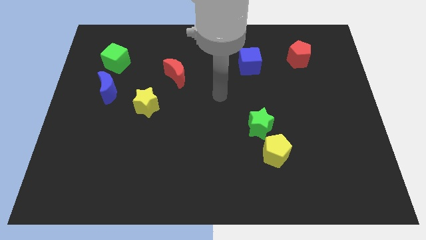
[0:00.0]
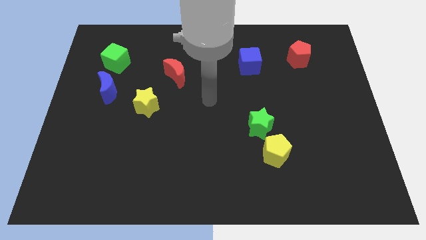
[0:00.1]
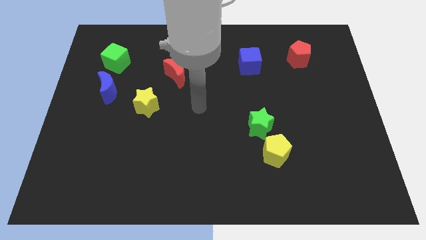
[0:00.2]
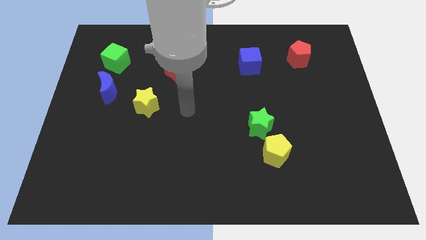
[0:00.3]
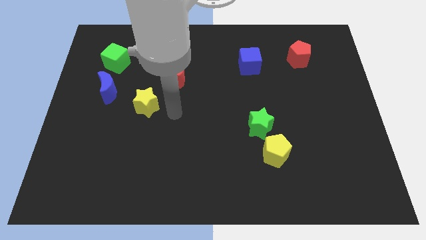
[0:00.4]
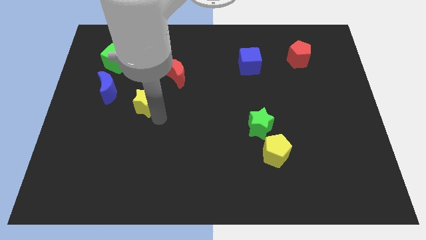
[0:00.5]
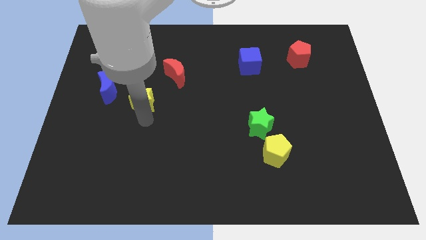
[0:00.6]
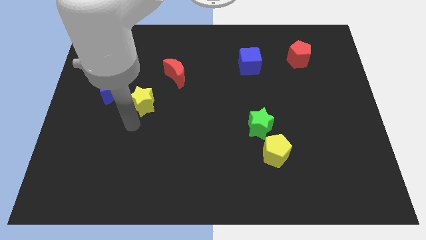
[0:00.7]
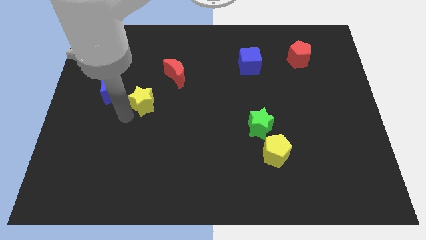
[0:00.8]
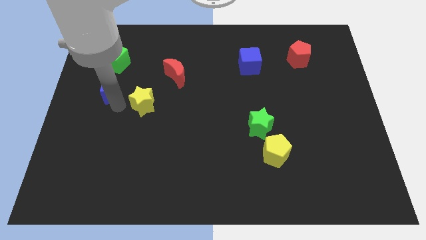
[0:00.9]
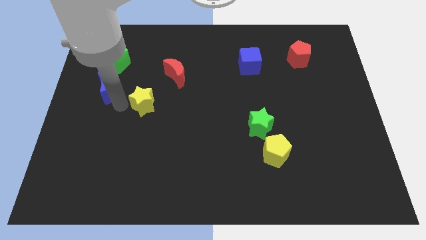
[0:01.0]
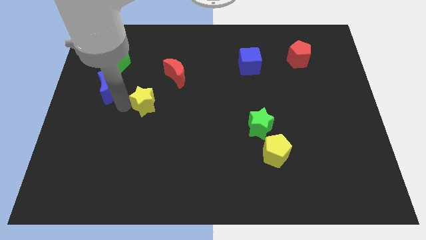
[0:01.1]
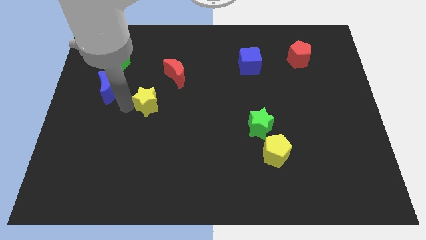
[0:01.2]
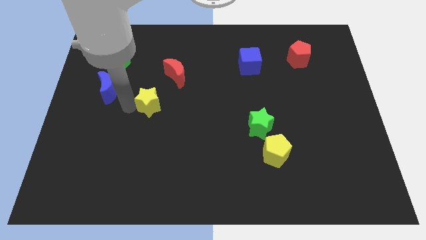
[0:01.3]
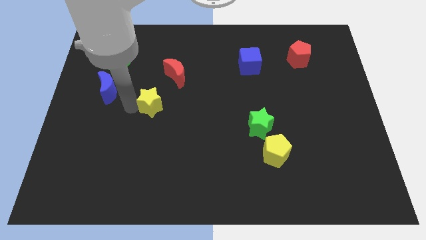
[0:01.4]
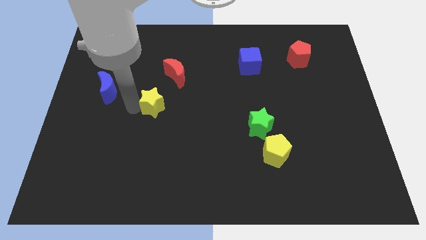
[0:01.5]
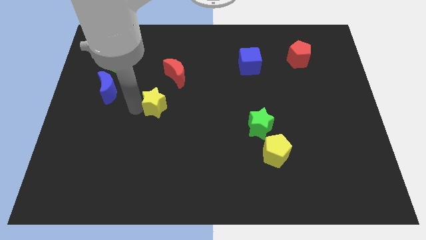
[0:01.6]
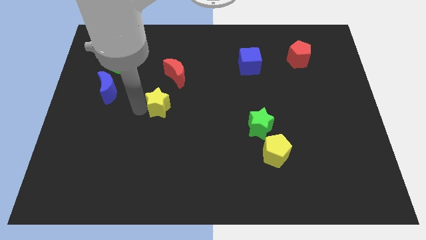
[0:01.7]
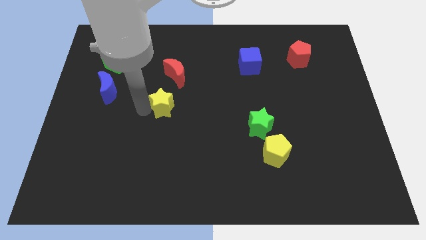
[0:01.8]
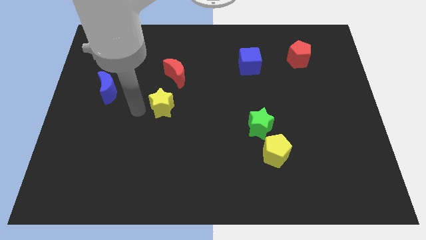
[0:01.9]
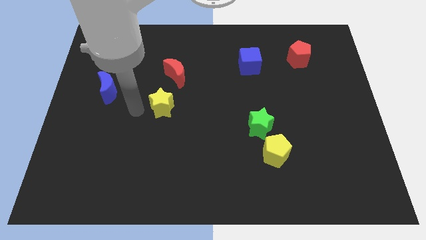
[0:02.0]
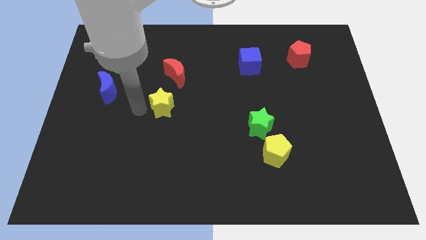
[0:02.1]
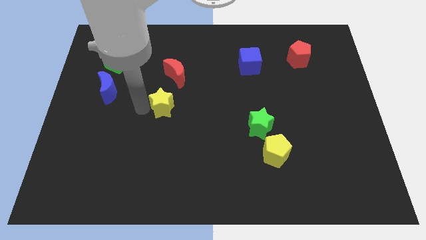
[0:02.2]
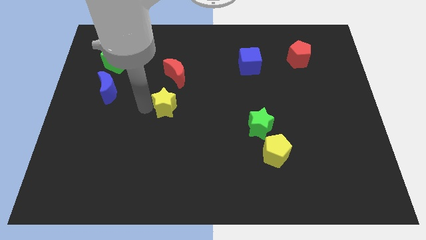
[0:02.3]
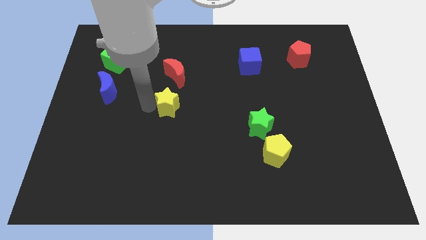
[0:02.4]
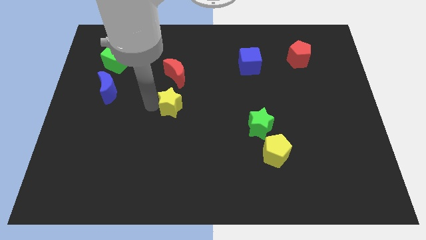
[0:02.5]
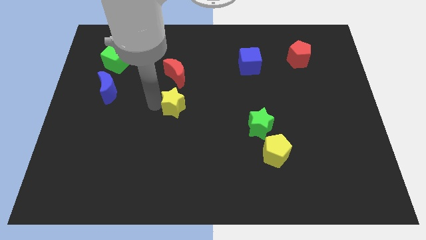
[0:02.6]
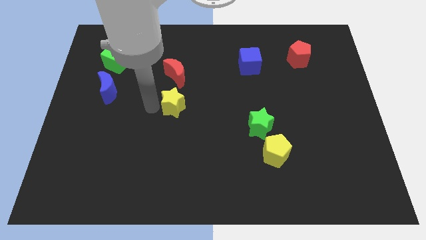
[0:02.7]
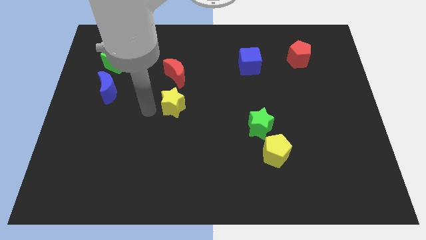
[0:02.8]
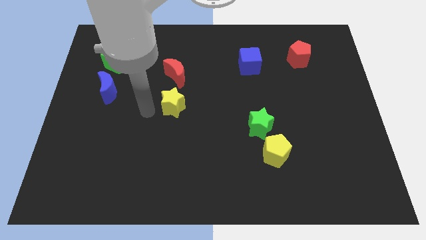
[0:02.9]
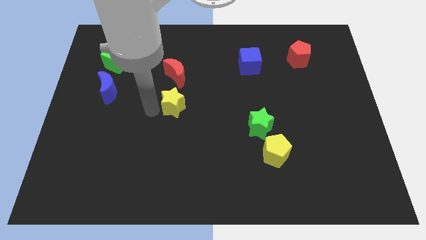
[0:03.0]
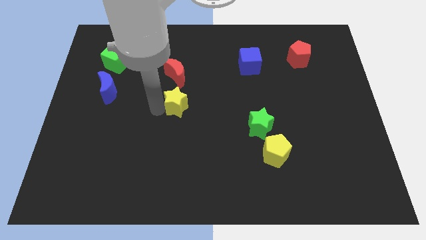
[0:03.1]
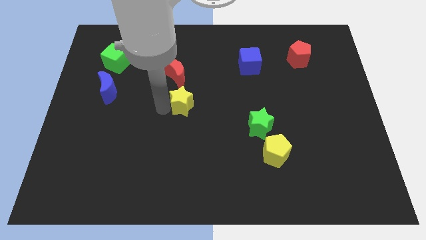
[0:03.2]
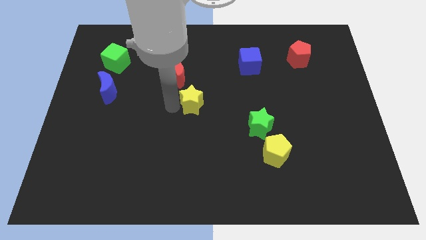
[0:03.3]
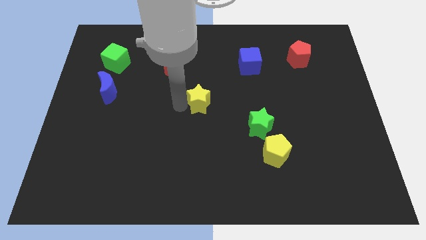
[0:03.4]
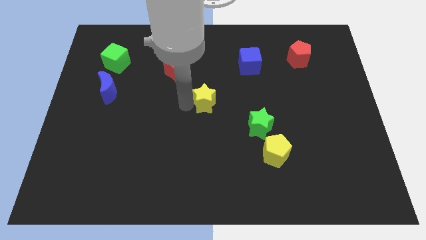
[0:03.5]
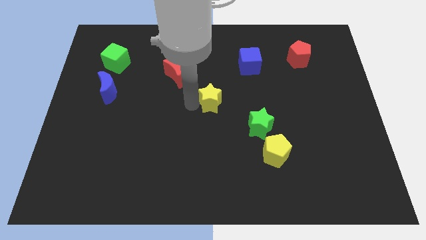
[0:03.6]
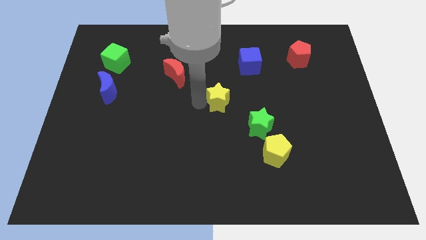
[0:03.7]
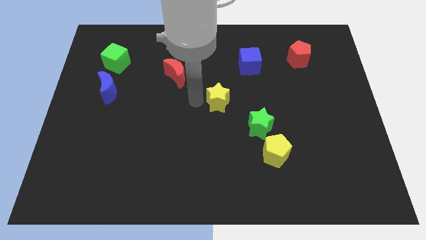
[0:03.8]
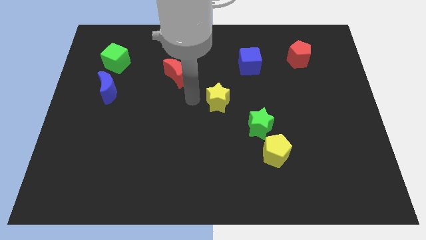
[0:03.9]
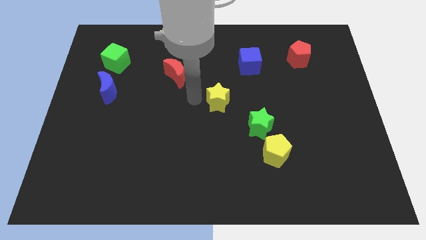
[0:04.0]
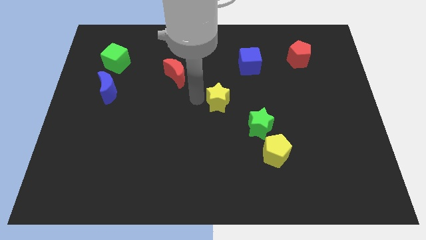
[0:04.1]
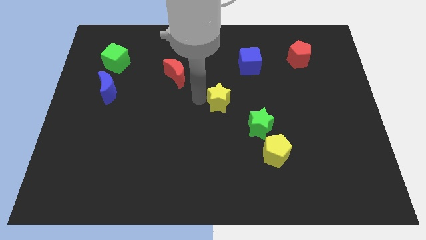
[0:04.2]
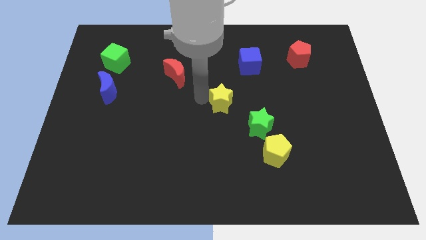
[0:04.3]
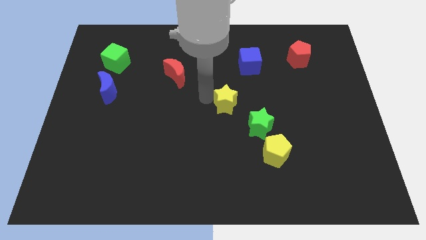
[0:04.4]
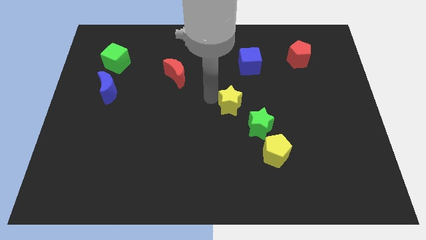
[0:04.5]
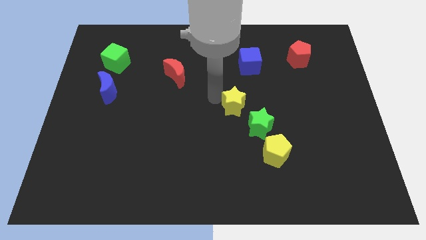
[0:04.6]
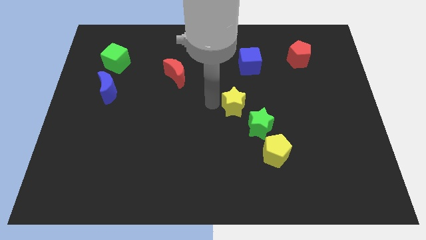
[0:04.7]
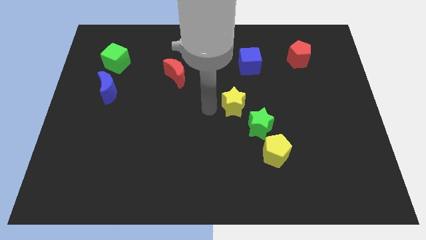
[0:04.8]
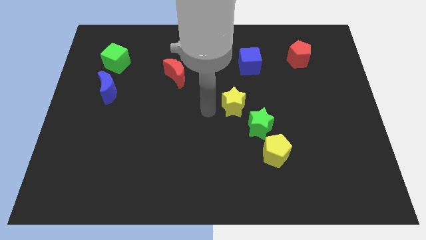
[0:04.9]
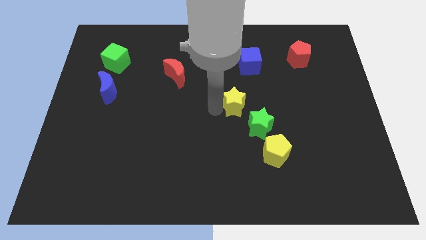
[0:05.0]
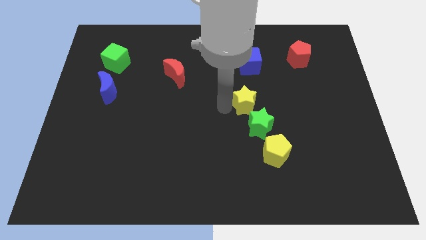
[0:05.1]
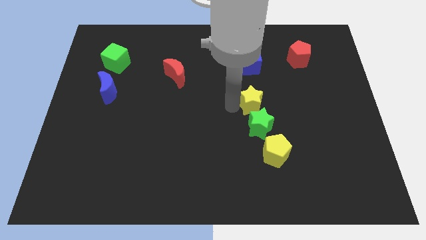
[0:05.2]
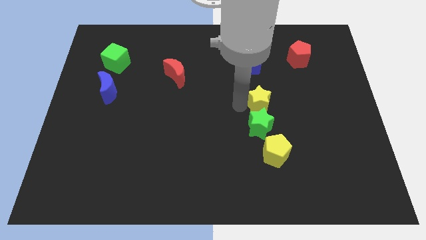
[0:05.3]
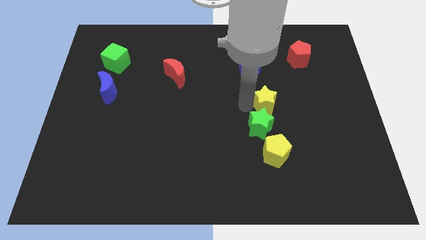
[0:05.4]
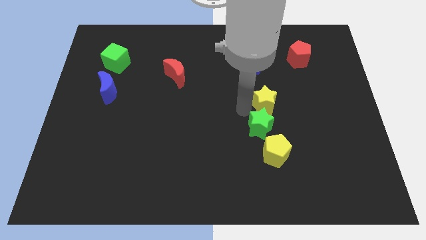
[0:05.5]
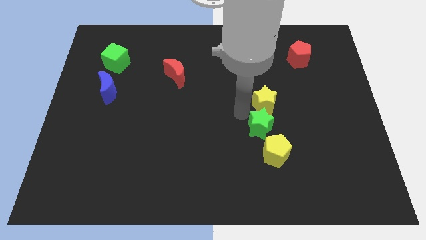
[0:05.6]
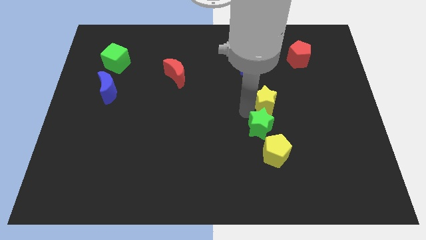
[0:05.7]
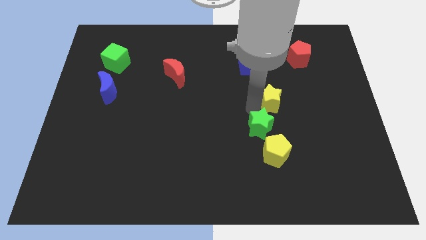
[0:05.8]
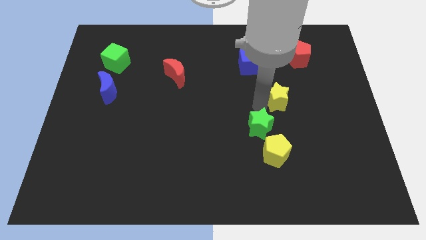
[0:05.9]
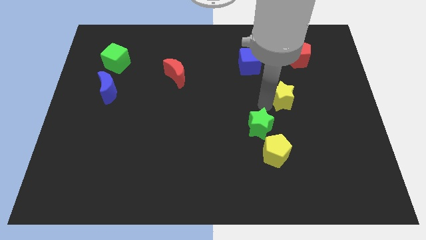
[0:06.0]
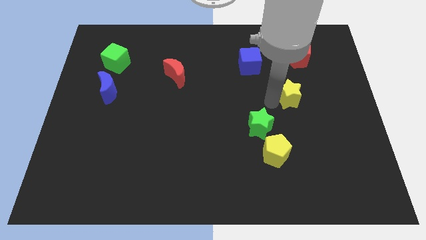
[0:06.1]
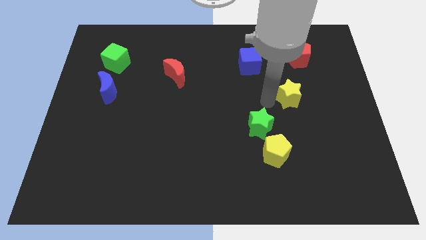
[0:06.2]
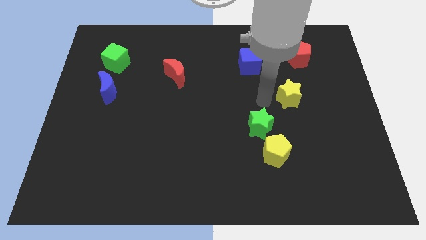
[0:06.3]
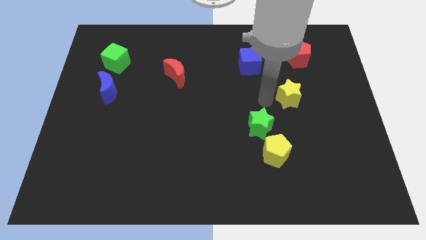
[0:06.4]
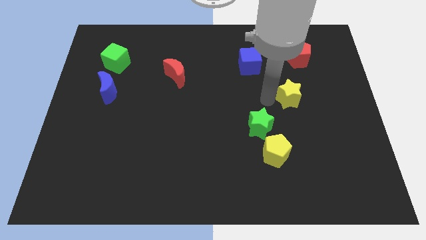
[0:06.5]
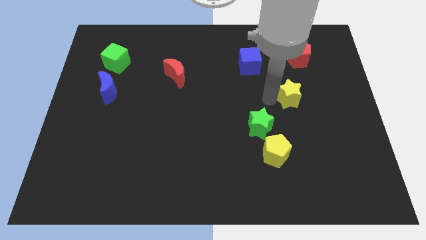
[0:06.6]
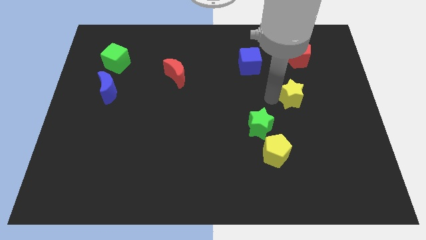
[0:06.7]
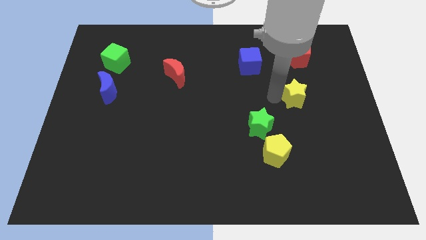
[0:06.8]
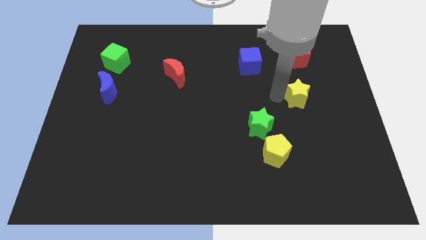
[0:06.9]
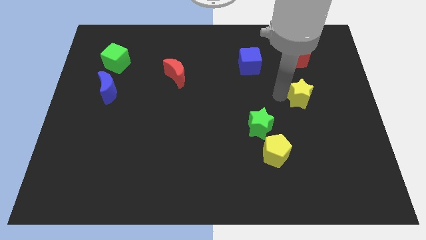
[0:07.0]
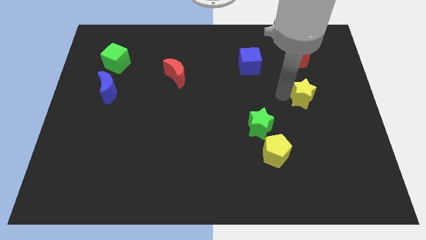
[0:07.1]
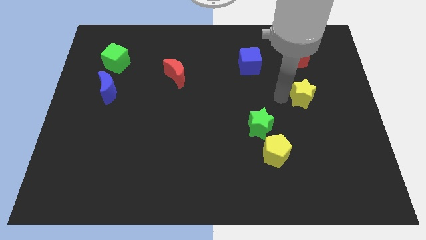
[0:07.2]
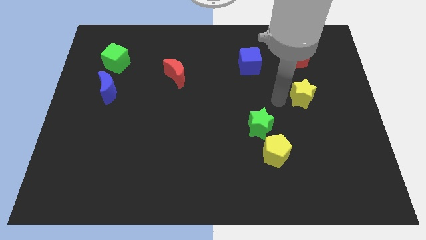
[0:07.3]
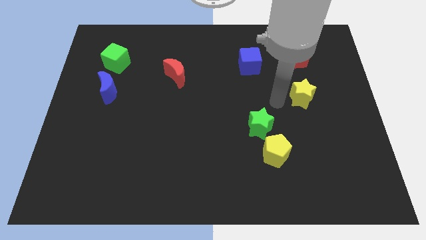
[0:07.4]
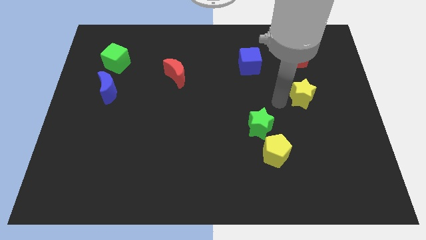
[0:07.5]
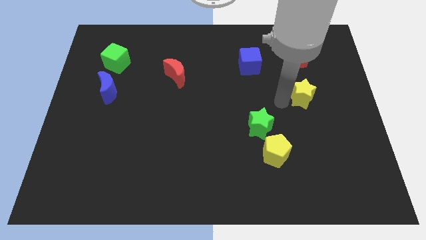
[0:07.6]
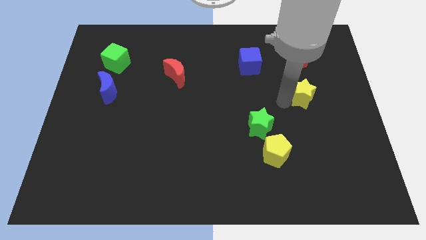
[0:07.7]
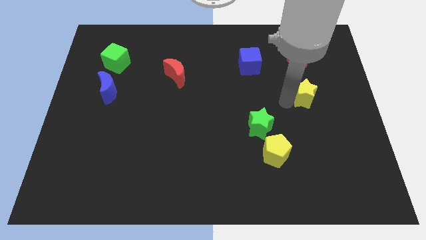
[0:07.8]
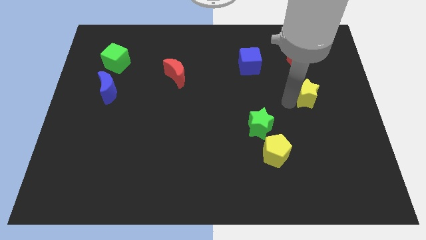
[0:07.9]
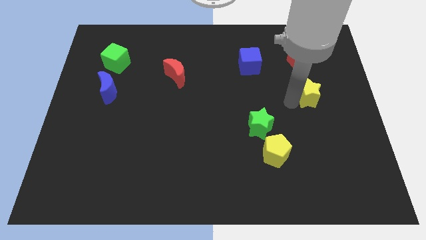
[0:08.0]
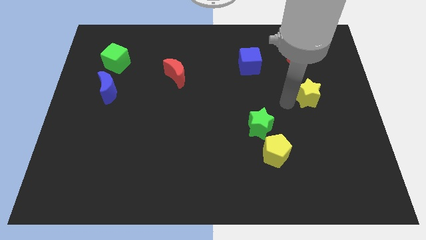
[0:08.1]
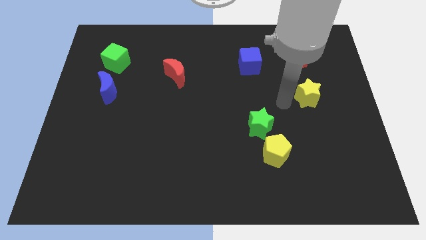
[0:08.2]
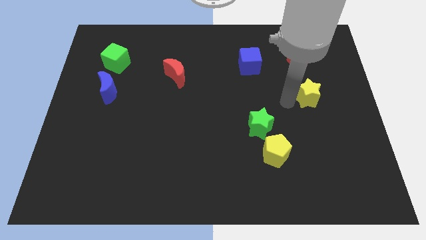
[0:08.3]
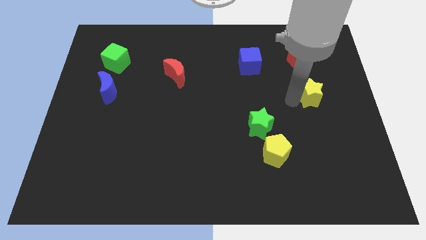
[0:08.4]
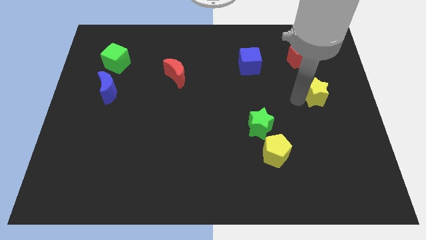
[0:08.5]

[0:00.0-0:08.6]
put the yellow star to the right side of the board
